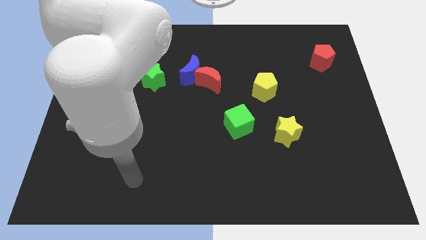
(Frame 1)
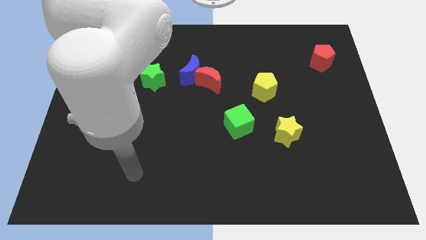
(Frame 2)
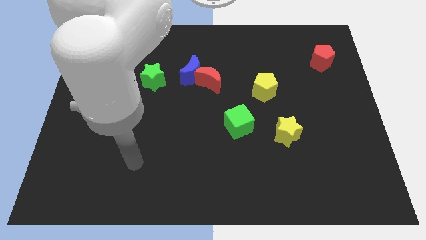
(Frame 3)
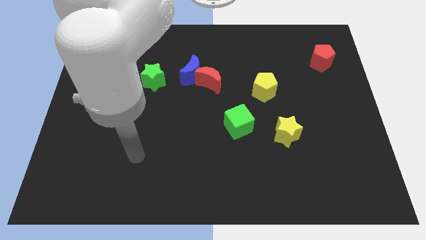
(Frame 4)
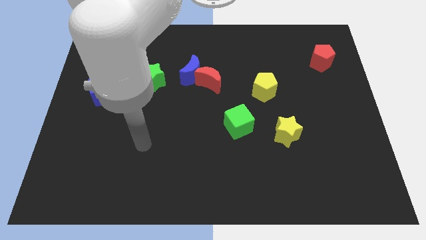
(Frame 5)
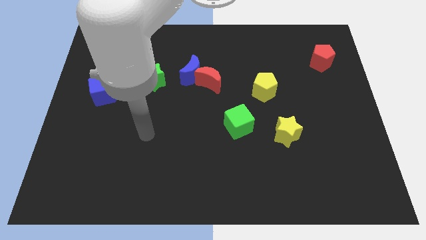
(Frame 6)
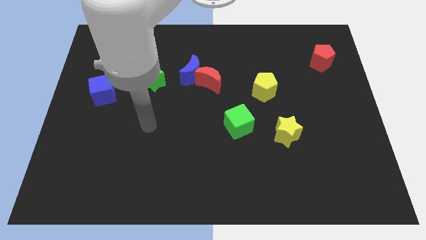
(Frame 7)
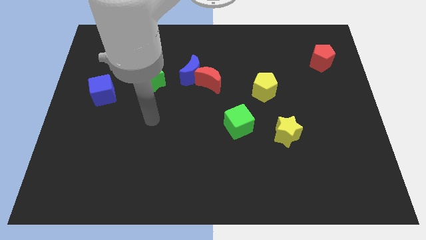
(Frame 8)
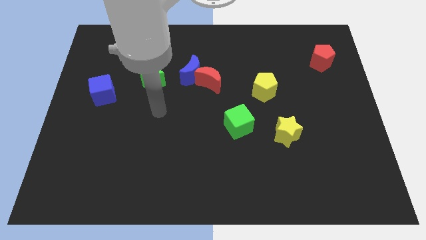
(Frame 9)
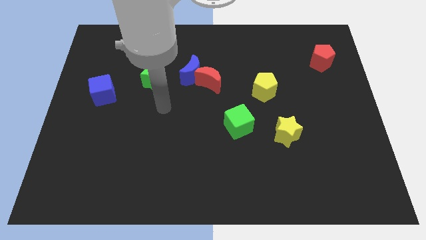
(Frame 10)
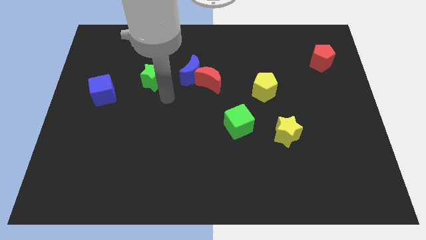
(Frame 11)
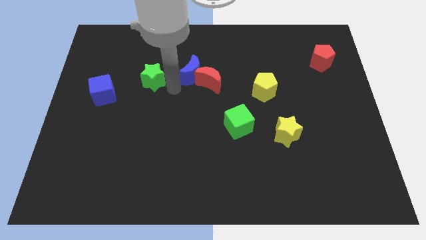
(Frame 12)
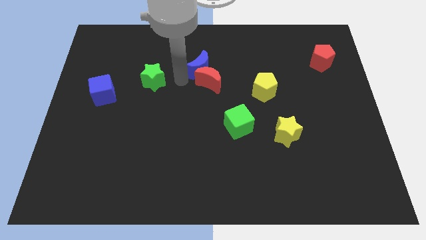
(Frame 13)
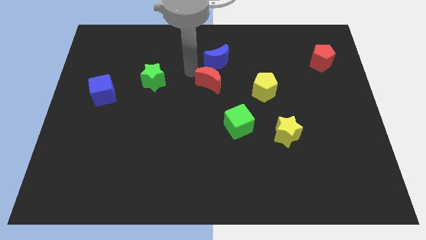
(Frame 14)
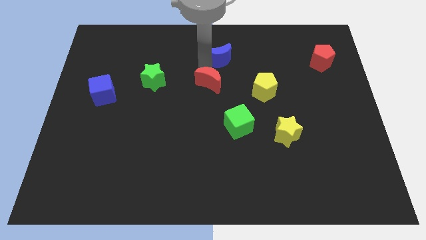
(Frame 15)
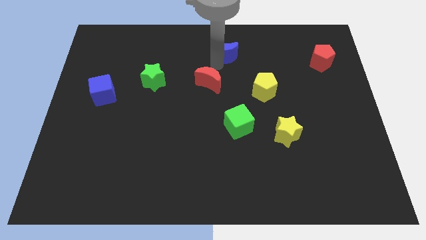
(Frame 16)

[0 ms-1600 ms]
separate the red moon from the blue moon

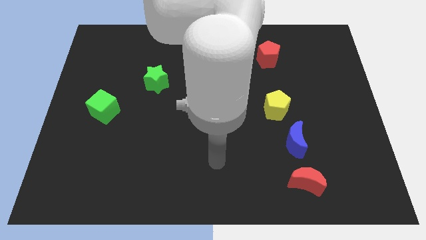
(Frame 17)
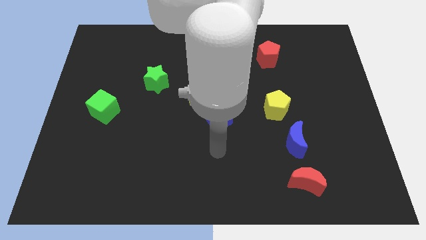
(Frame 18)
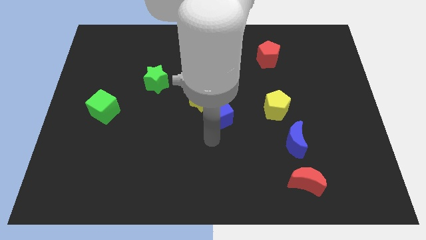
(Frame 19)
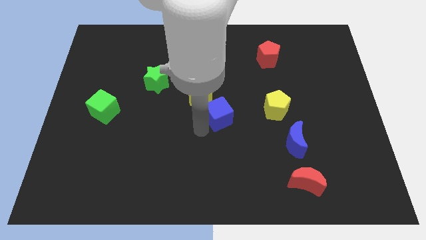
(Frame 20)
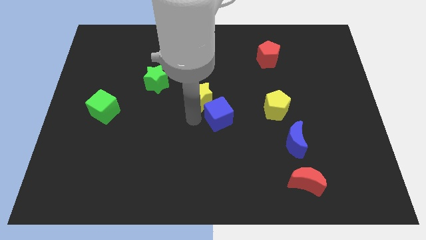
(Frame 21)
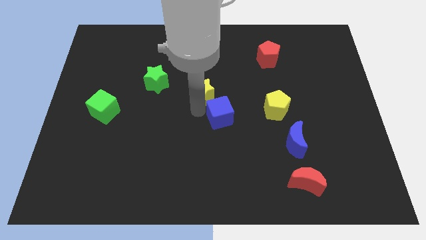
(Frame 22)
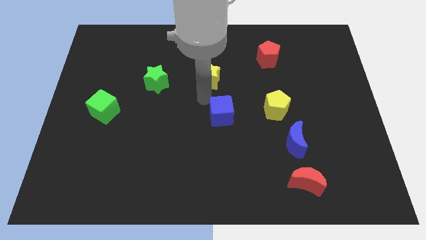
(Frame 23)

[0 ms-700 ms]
separate the blue cube from the yellow star

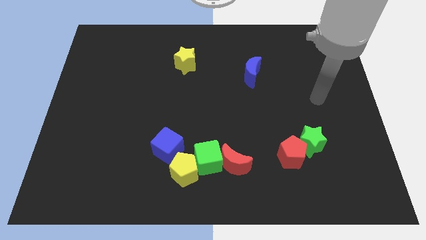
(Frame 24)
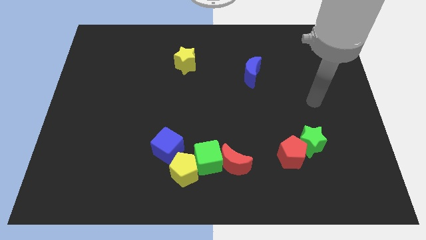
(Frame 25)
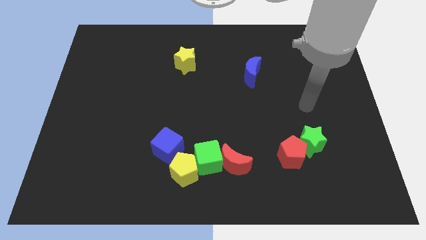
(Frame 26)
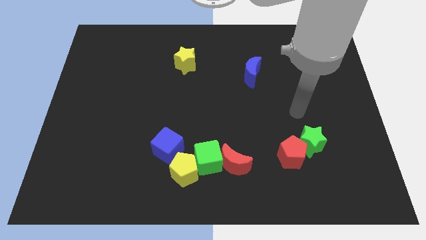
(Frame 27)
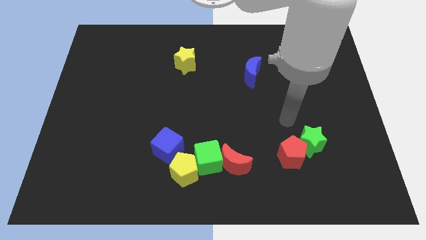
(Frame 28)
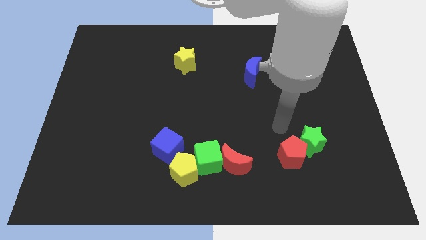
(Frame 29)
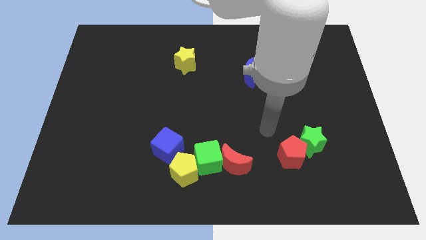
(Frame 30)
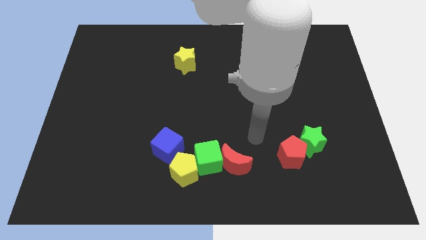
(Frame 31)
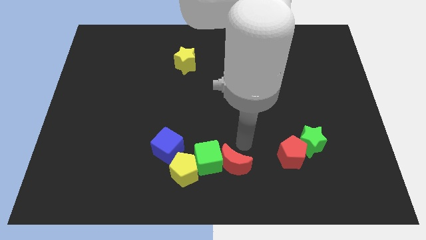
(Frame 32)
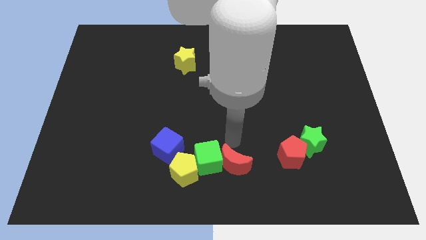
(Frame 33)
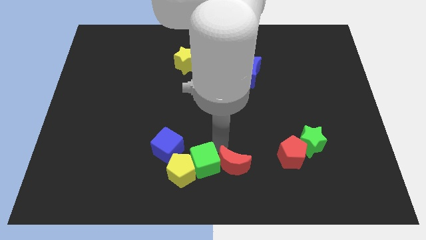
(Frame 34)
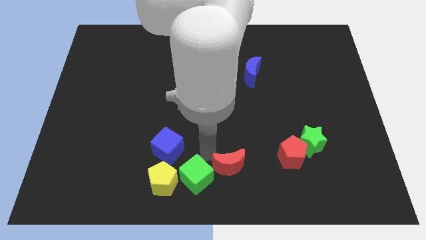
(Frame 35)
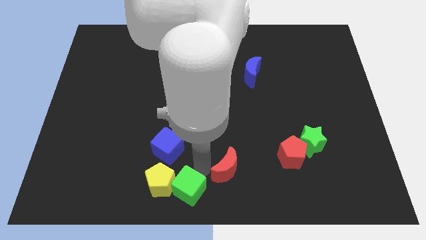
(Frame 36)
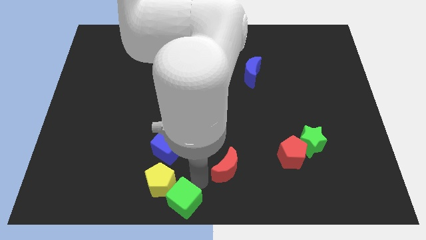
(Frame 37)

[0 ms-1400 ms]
pull the red moon apart from the green cube

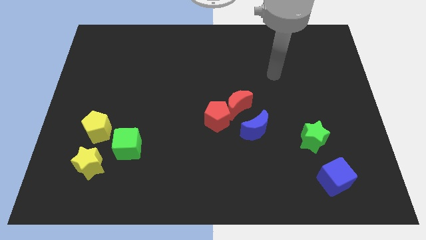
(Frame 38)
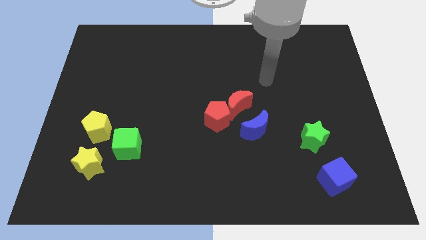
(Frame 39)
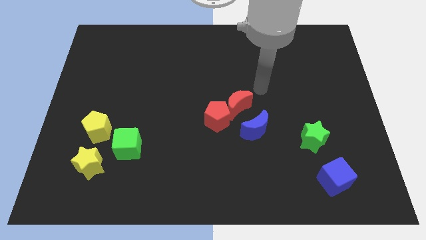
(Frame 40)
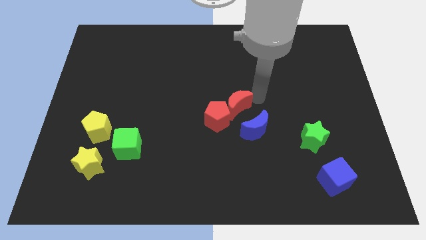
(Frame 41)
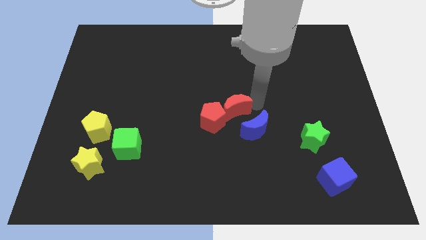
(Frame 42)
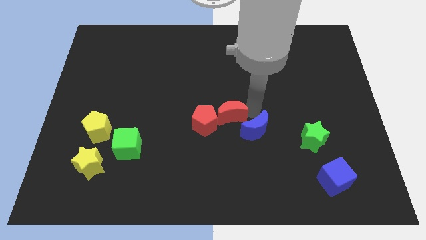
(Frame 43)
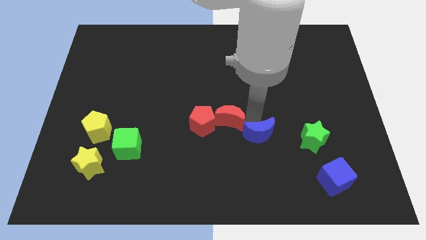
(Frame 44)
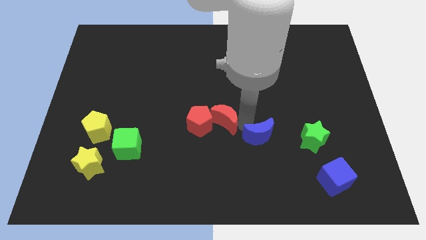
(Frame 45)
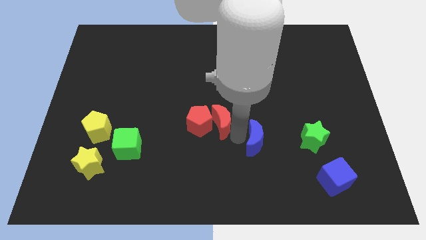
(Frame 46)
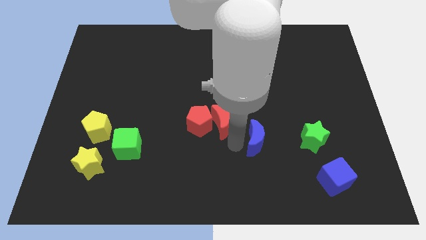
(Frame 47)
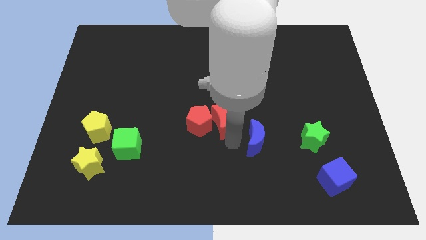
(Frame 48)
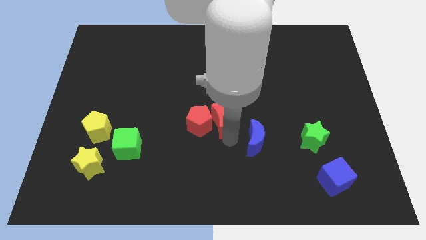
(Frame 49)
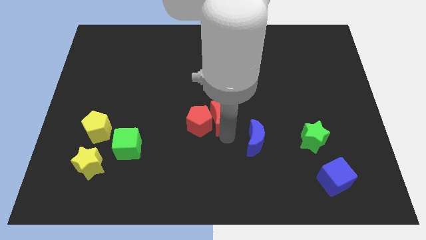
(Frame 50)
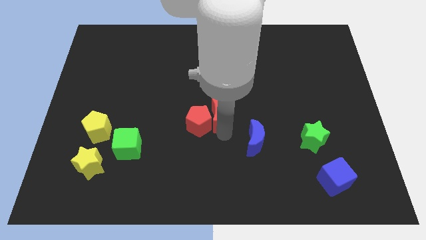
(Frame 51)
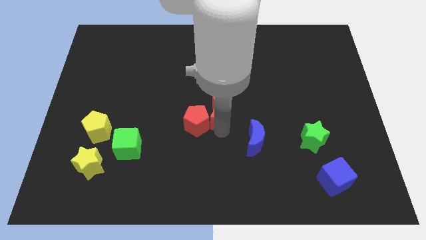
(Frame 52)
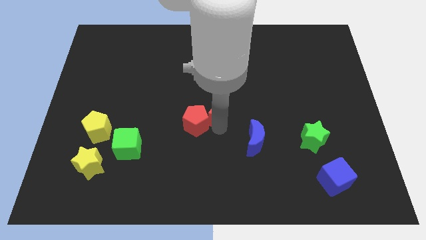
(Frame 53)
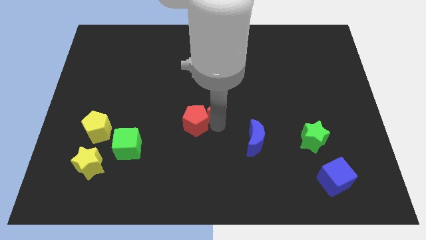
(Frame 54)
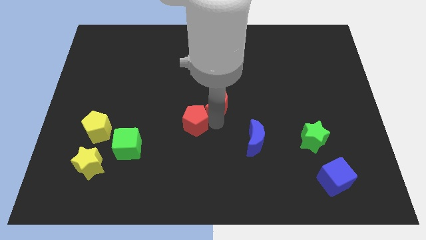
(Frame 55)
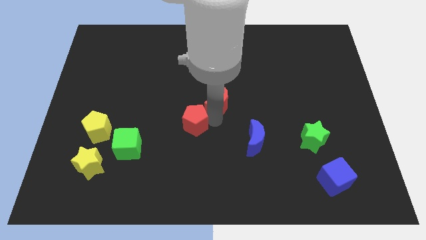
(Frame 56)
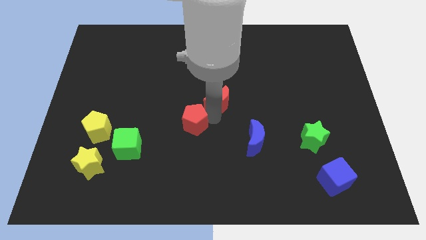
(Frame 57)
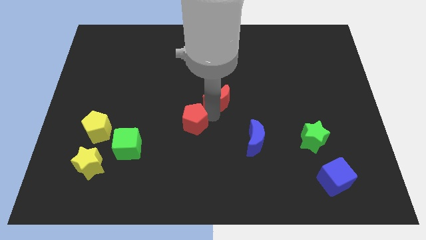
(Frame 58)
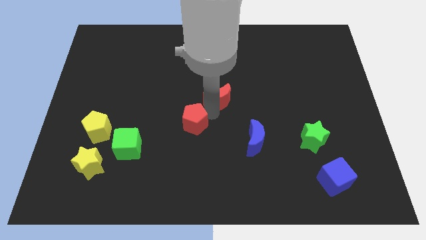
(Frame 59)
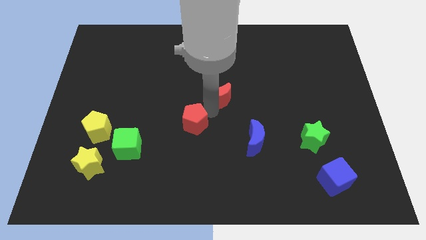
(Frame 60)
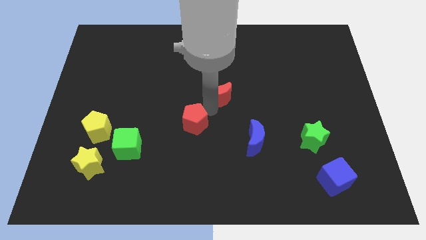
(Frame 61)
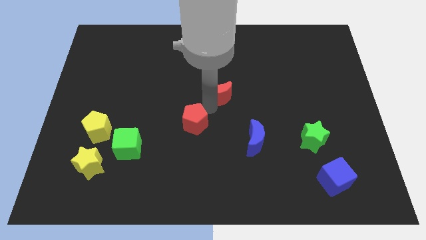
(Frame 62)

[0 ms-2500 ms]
separate the red moon from the red pentagon and blue moon

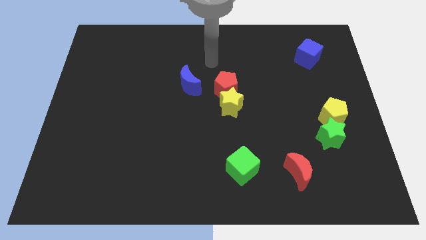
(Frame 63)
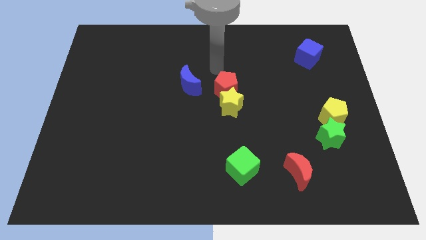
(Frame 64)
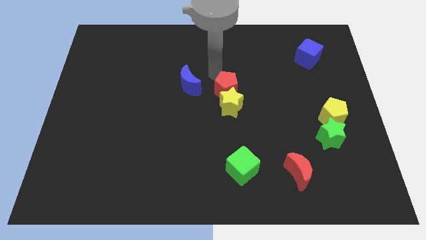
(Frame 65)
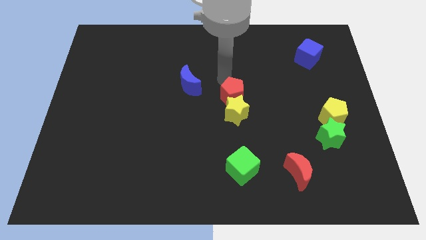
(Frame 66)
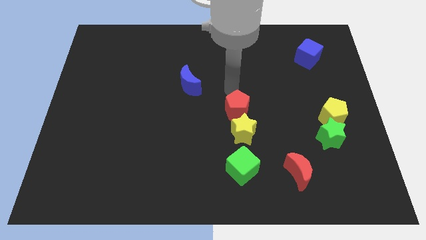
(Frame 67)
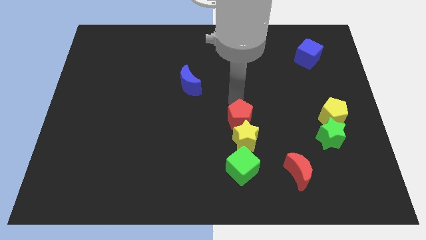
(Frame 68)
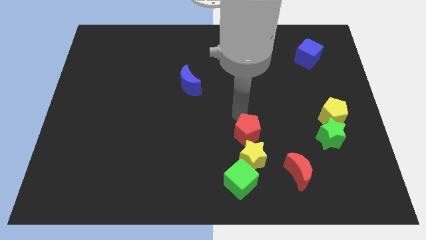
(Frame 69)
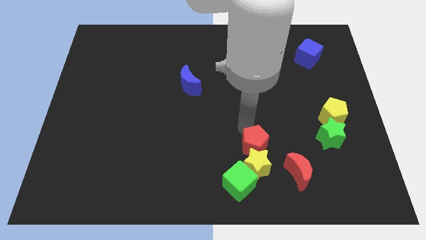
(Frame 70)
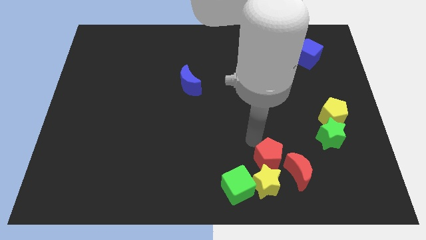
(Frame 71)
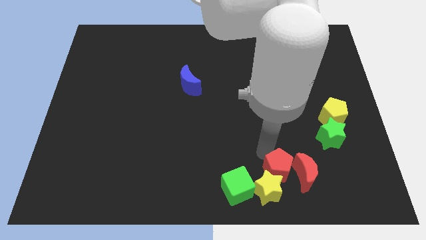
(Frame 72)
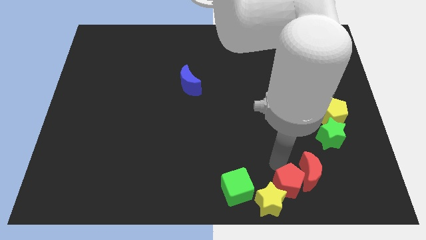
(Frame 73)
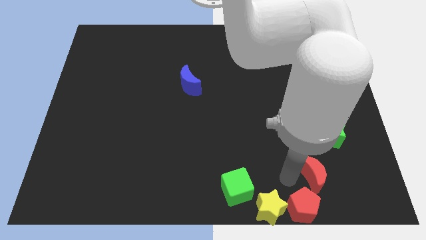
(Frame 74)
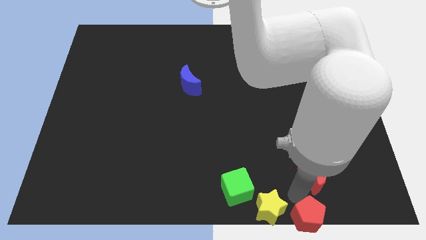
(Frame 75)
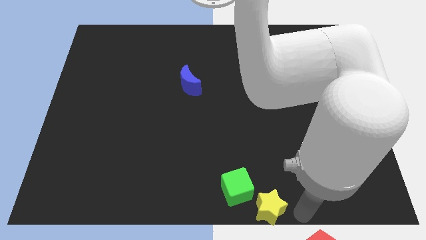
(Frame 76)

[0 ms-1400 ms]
separate the yellow star from the red pentagon

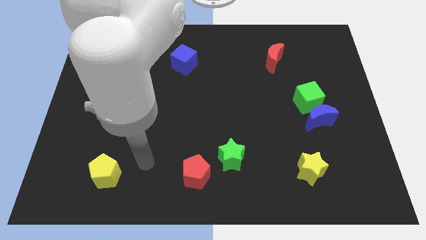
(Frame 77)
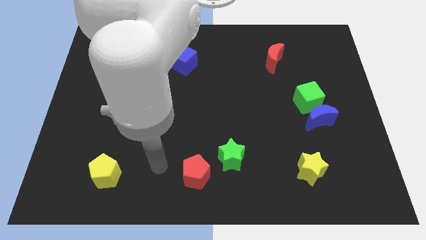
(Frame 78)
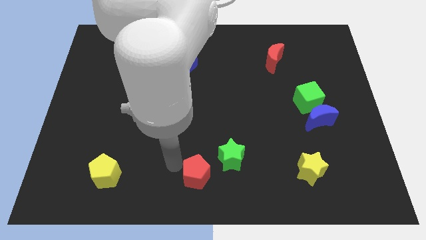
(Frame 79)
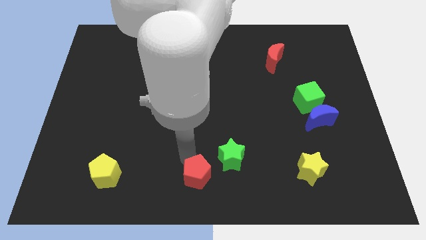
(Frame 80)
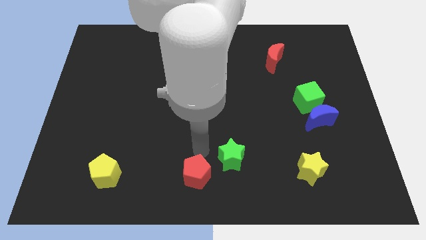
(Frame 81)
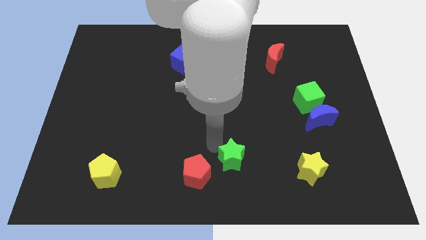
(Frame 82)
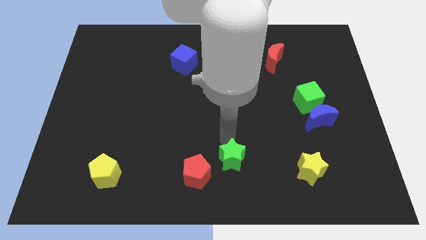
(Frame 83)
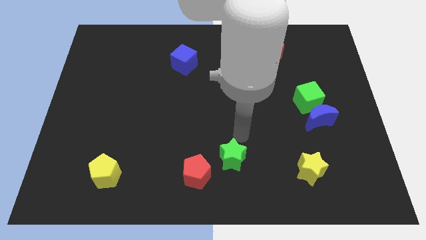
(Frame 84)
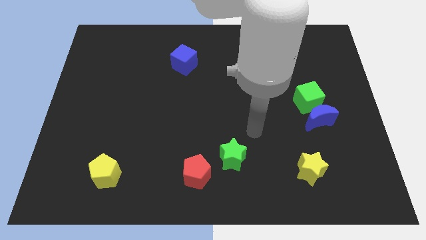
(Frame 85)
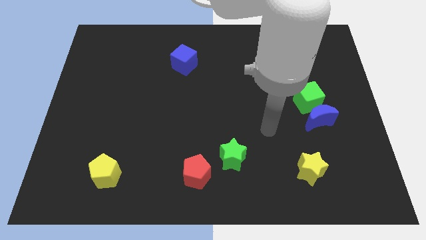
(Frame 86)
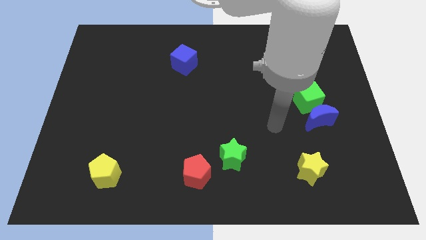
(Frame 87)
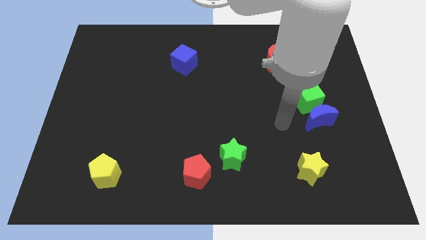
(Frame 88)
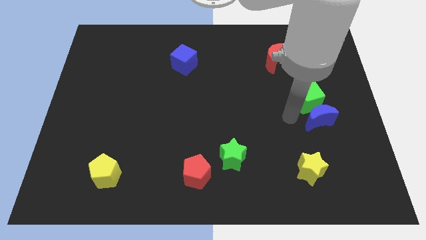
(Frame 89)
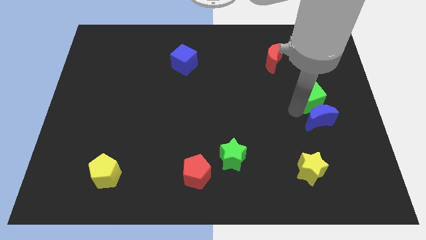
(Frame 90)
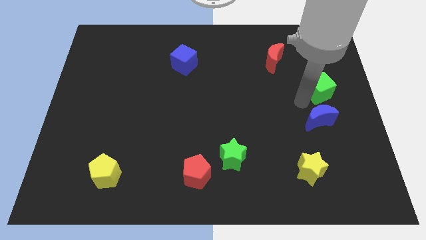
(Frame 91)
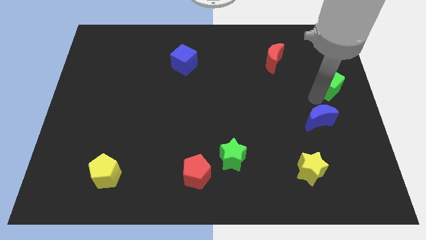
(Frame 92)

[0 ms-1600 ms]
pull the blue moon apart from the green cube
